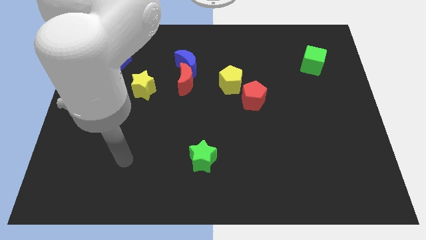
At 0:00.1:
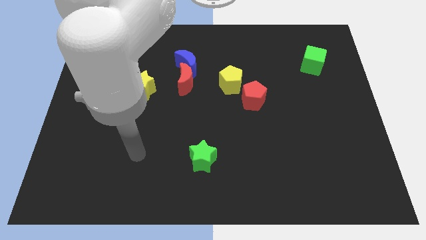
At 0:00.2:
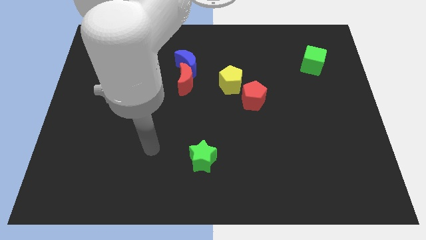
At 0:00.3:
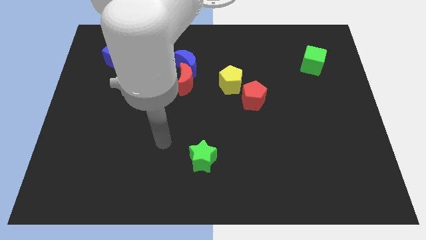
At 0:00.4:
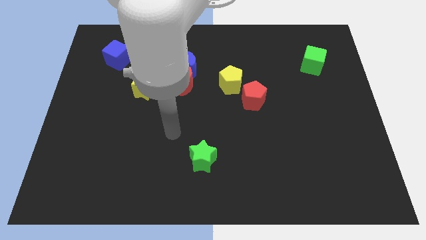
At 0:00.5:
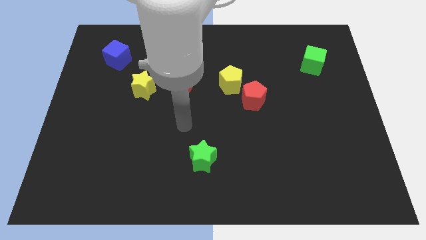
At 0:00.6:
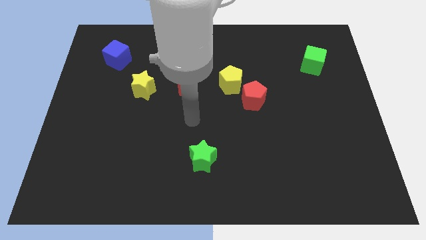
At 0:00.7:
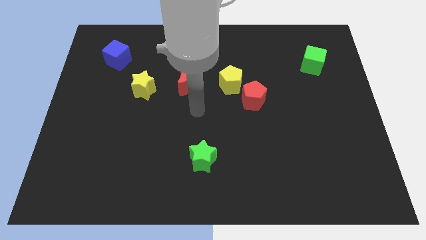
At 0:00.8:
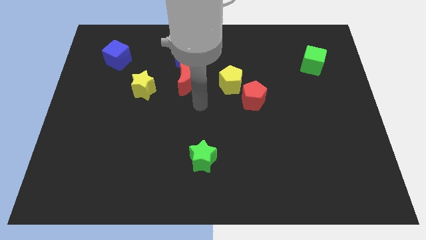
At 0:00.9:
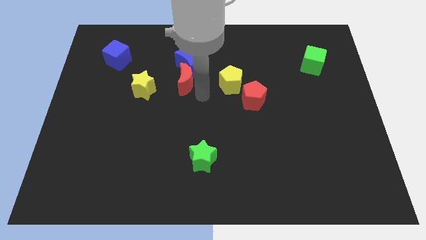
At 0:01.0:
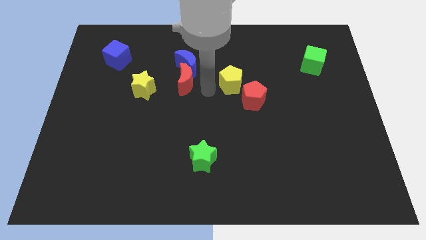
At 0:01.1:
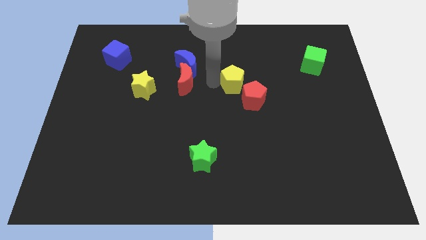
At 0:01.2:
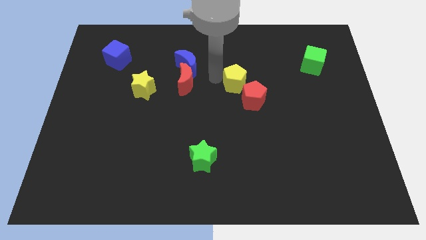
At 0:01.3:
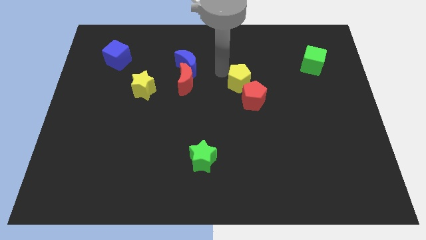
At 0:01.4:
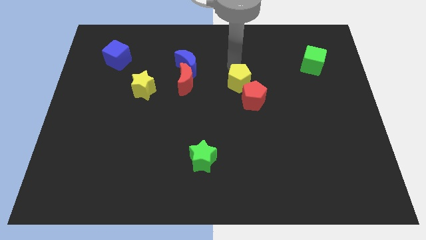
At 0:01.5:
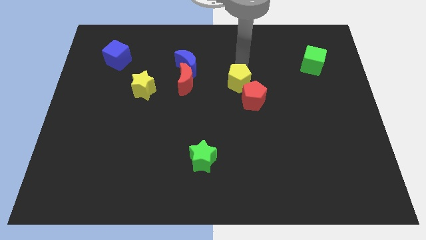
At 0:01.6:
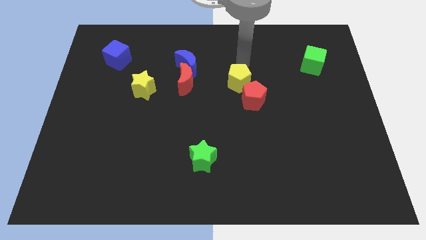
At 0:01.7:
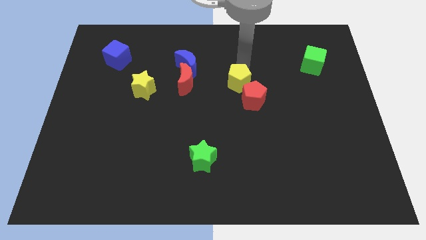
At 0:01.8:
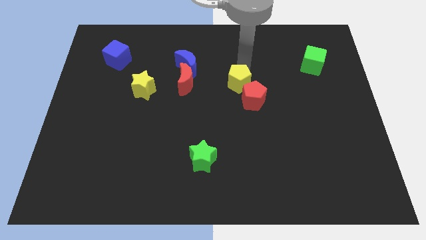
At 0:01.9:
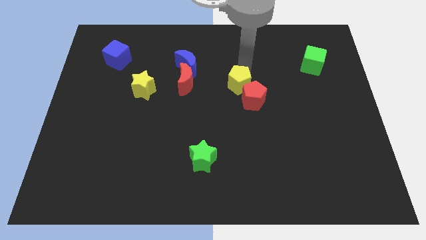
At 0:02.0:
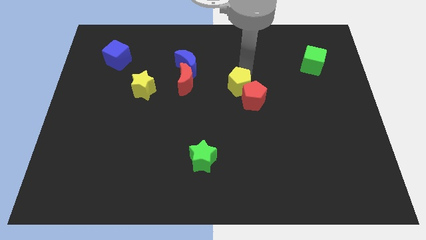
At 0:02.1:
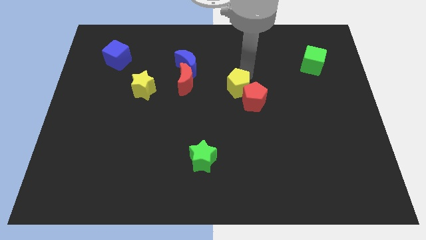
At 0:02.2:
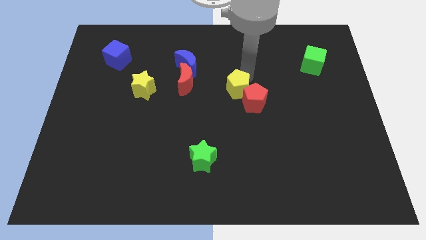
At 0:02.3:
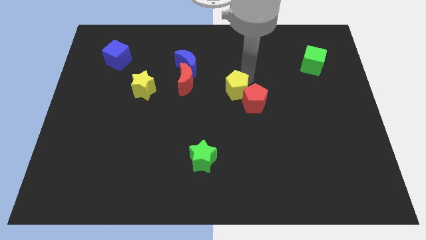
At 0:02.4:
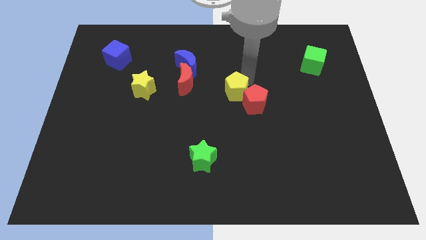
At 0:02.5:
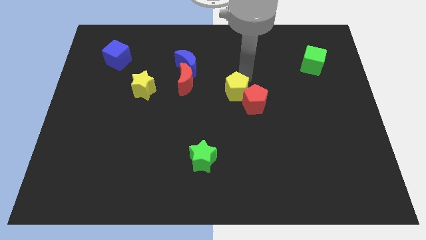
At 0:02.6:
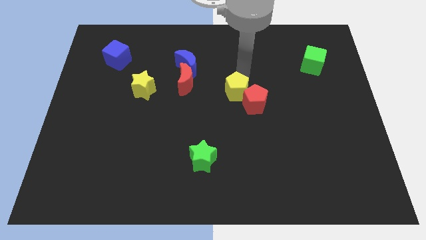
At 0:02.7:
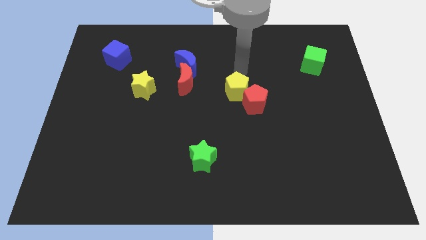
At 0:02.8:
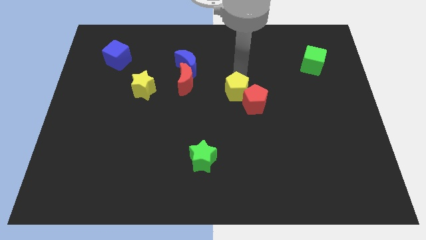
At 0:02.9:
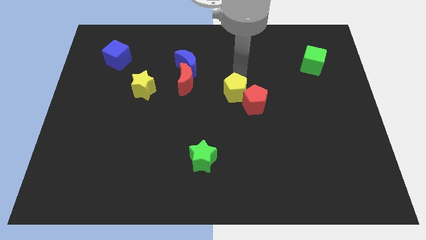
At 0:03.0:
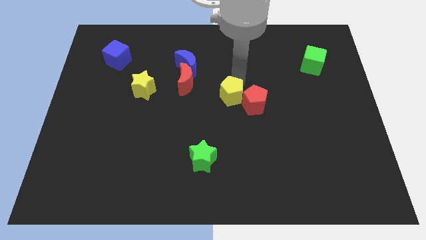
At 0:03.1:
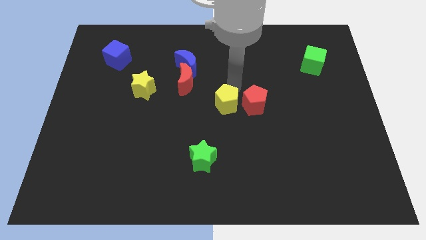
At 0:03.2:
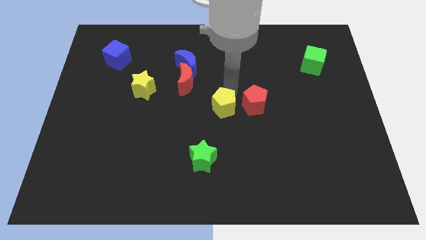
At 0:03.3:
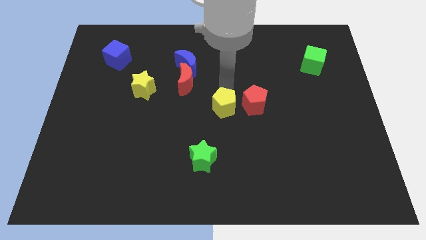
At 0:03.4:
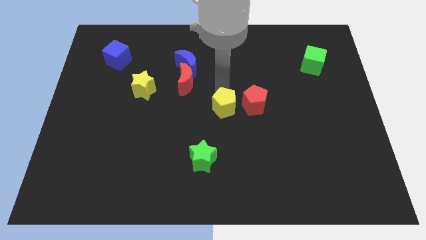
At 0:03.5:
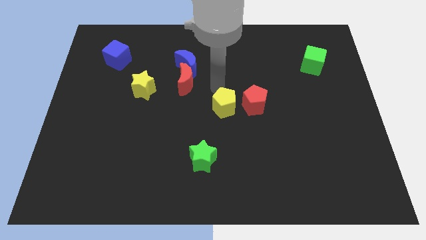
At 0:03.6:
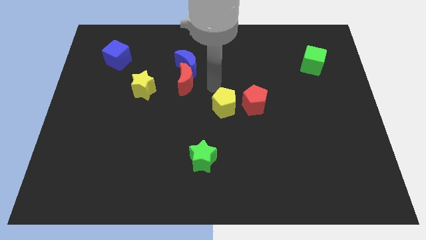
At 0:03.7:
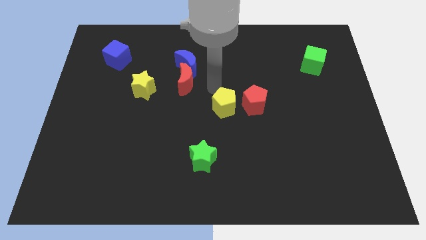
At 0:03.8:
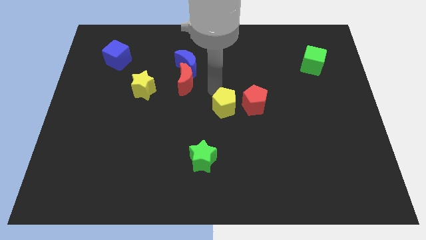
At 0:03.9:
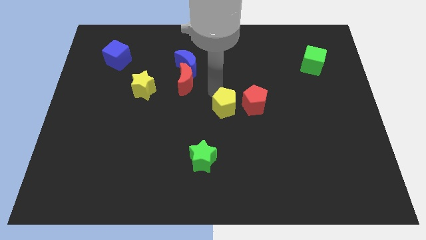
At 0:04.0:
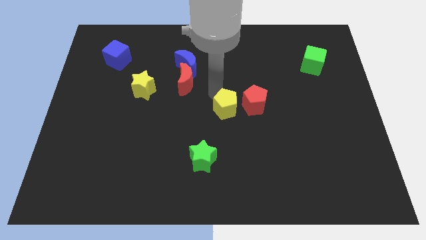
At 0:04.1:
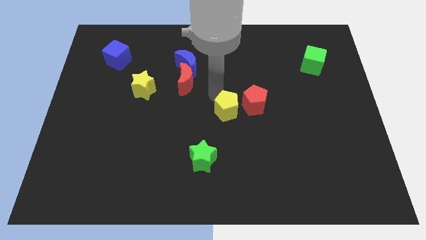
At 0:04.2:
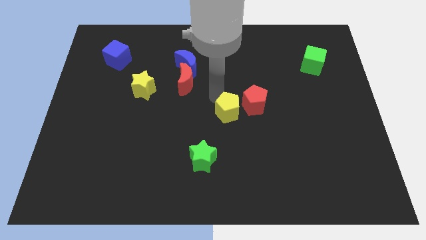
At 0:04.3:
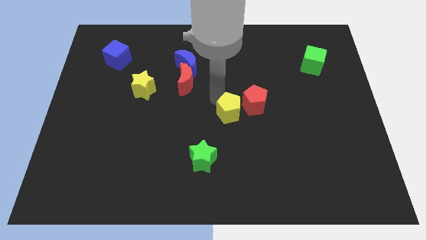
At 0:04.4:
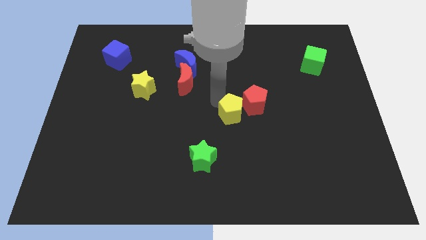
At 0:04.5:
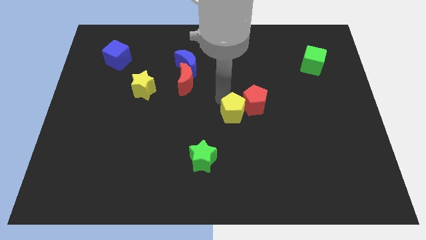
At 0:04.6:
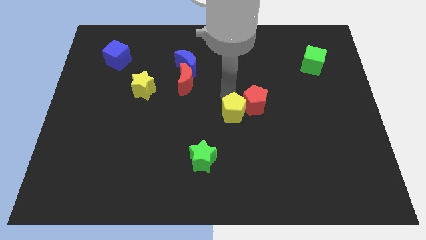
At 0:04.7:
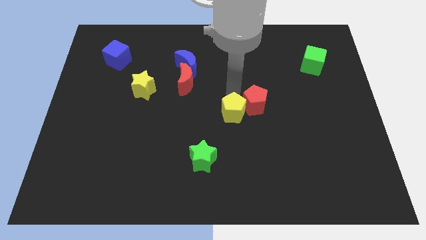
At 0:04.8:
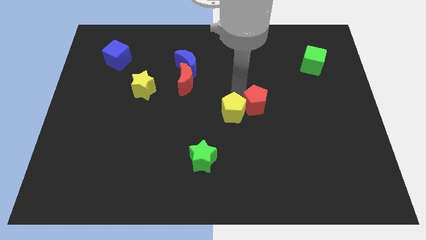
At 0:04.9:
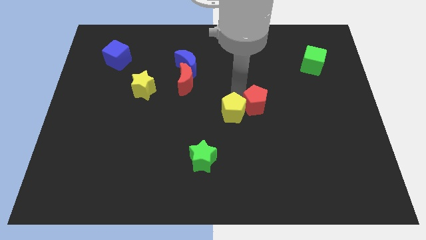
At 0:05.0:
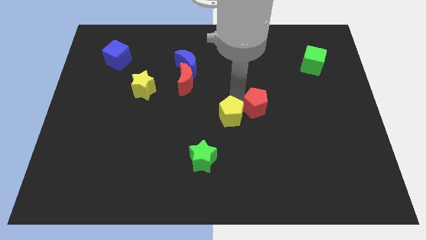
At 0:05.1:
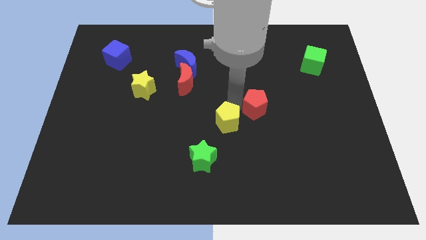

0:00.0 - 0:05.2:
put the yellow pentagon diagonally up and to the right of the green star

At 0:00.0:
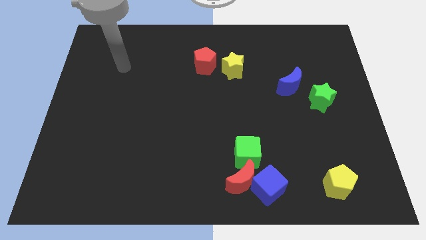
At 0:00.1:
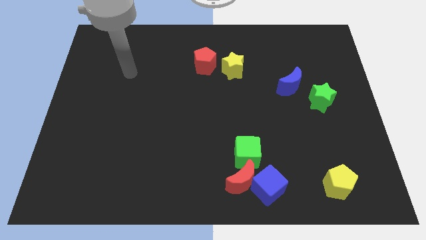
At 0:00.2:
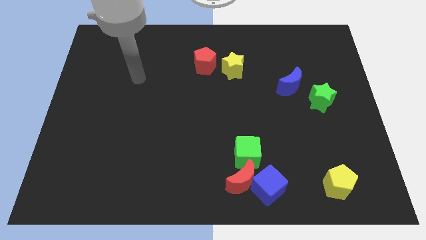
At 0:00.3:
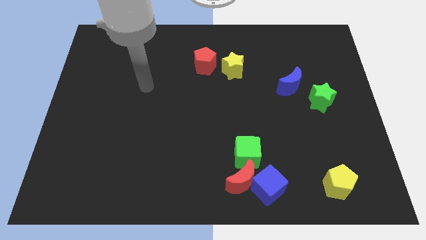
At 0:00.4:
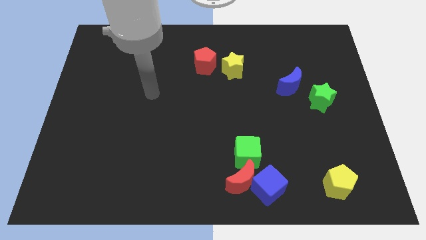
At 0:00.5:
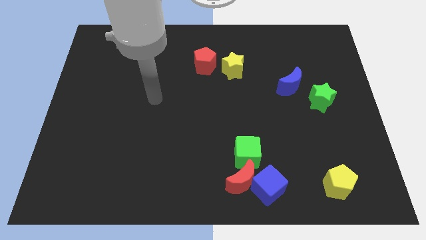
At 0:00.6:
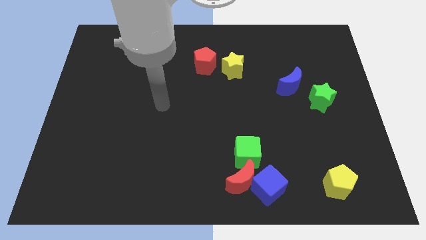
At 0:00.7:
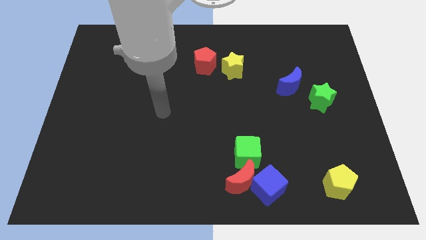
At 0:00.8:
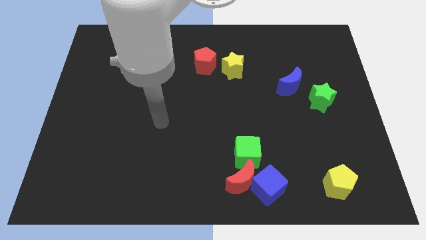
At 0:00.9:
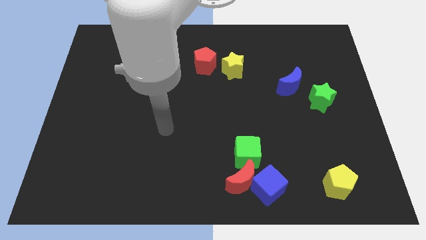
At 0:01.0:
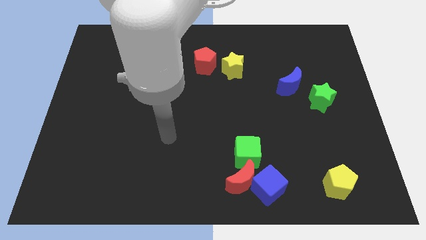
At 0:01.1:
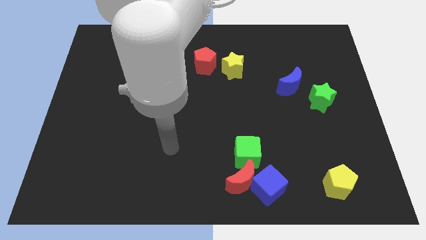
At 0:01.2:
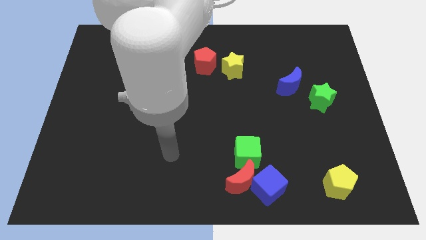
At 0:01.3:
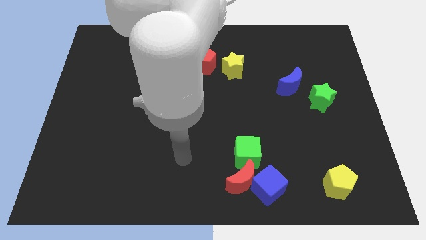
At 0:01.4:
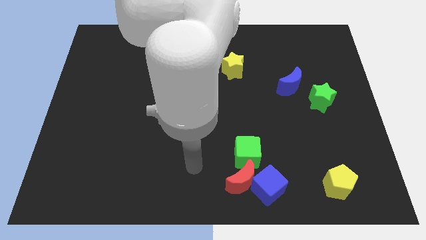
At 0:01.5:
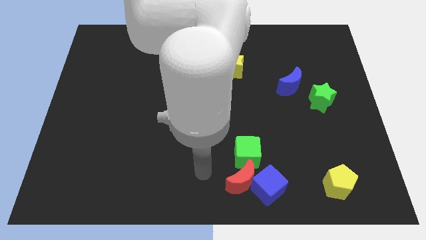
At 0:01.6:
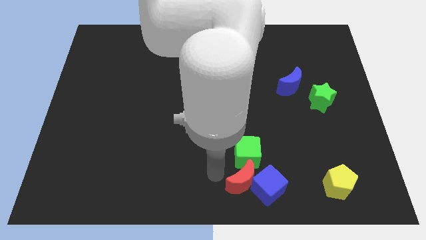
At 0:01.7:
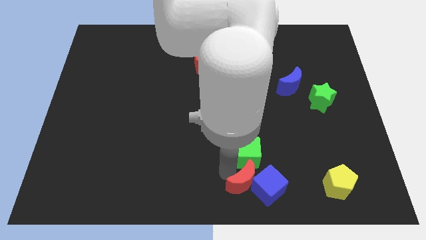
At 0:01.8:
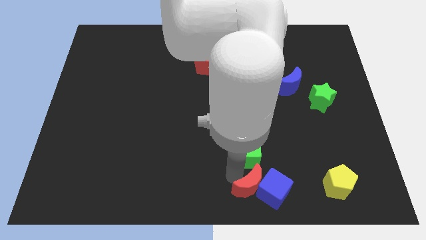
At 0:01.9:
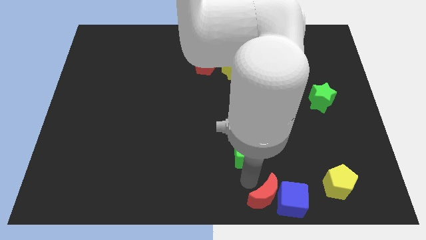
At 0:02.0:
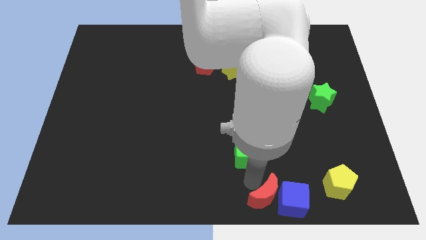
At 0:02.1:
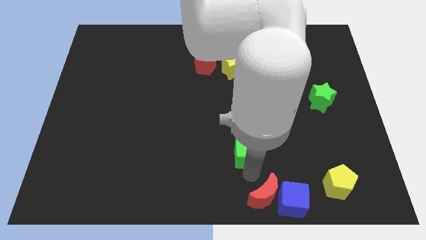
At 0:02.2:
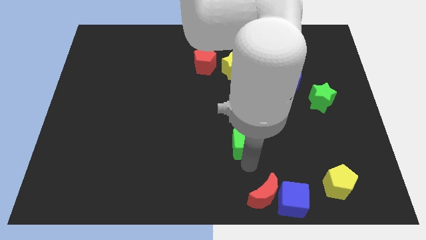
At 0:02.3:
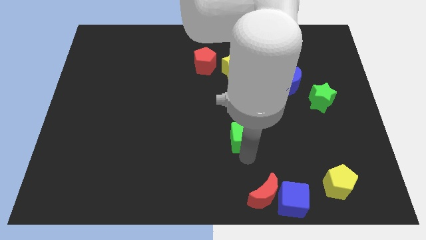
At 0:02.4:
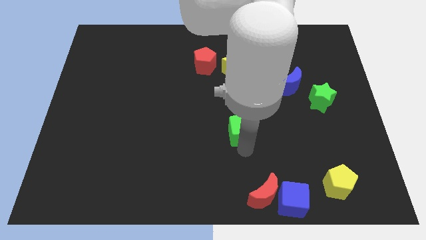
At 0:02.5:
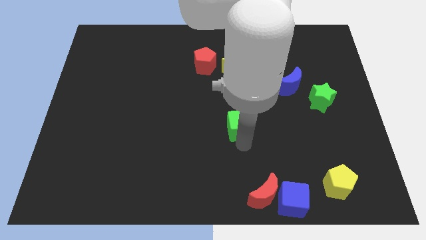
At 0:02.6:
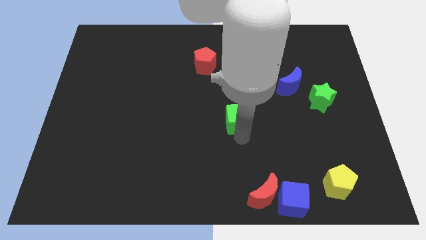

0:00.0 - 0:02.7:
move the green cube below the yellow star
